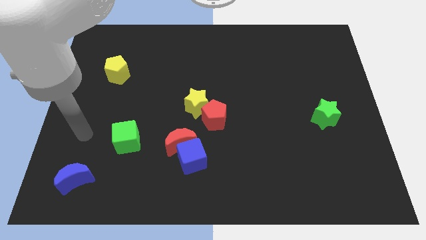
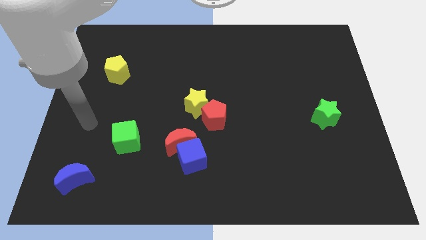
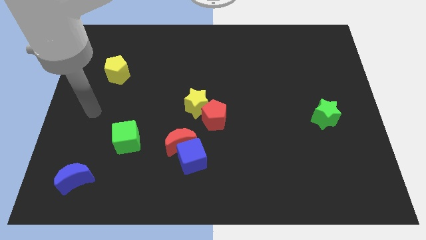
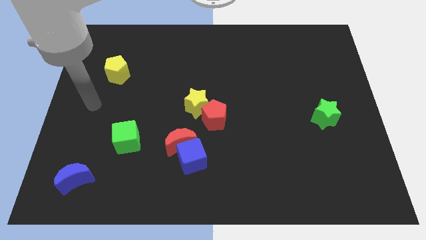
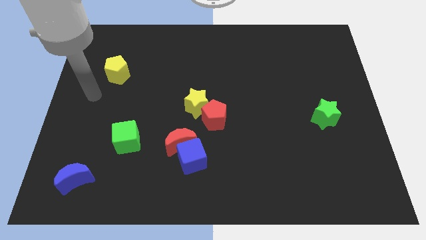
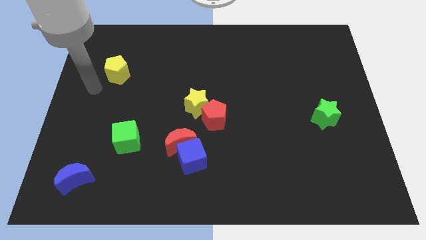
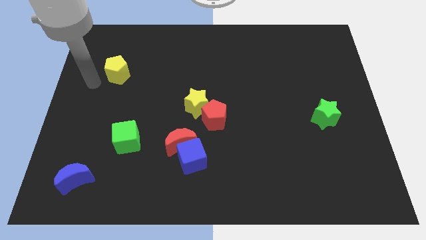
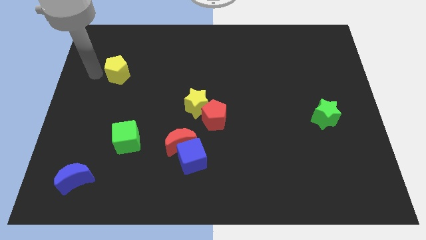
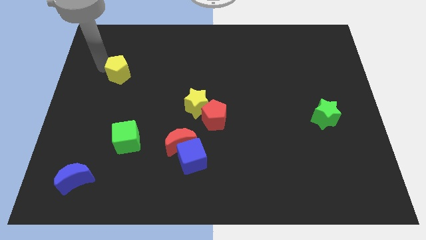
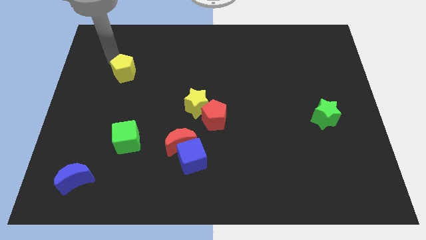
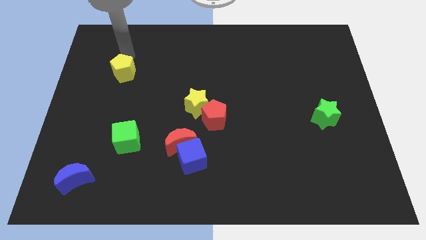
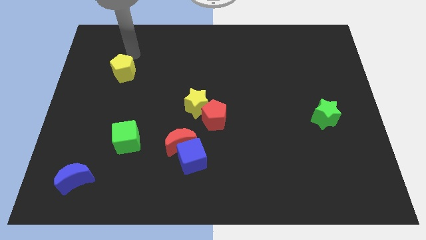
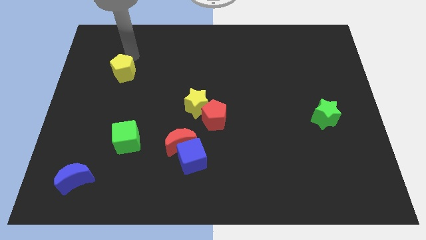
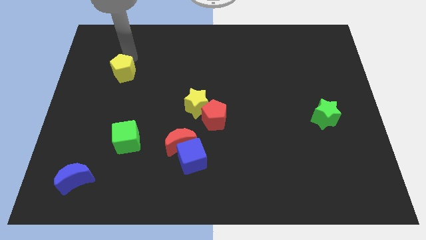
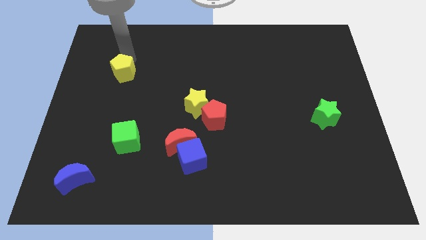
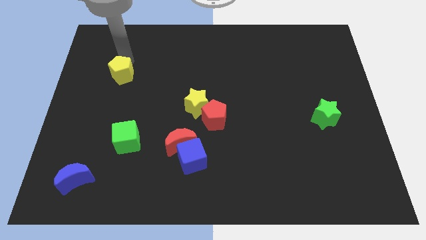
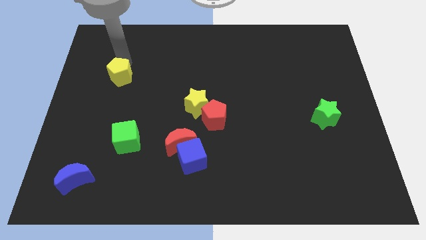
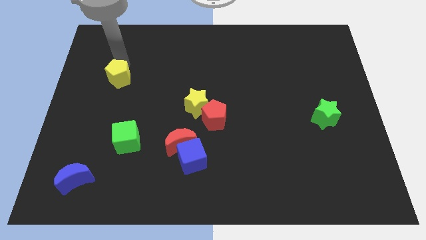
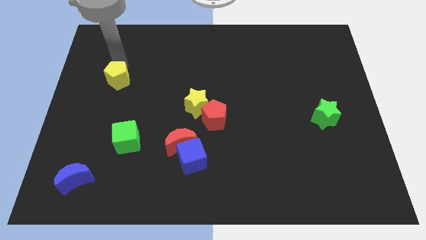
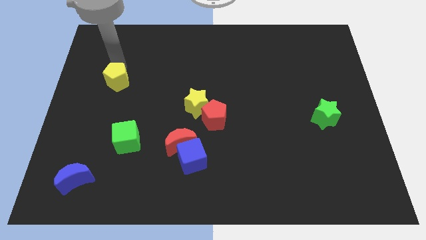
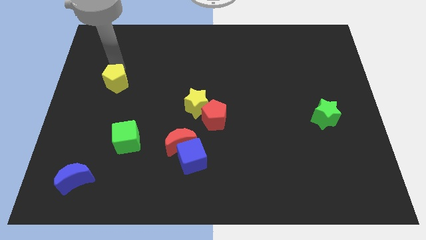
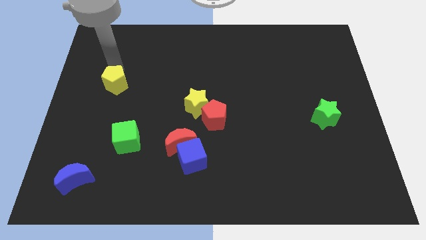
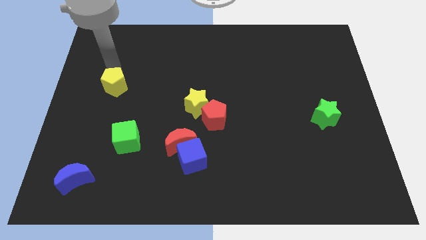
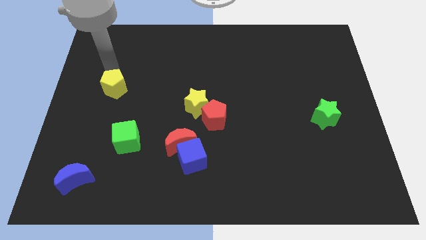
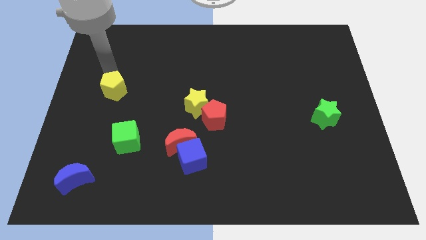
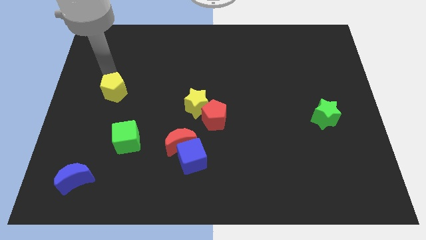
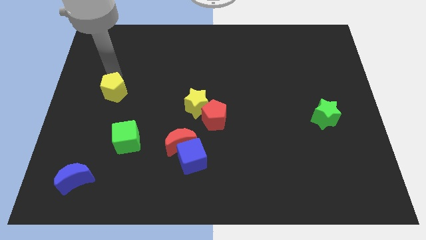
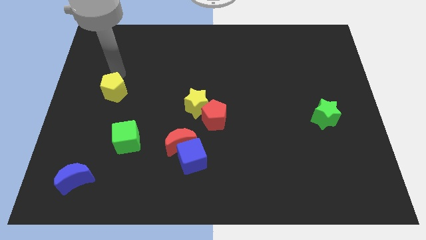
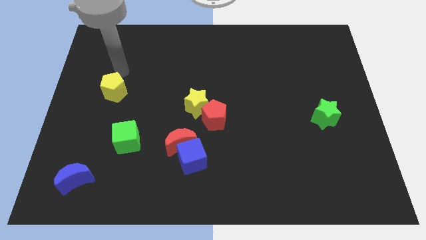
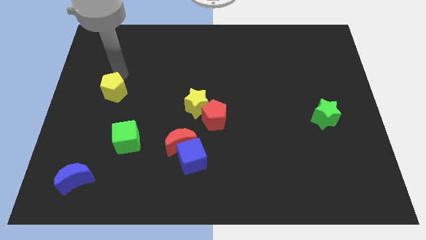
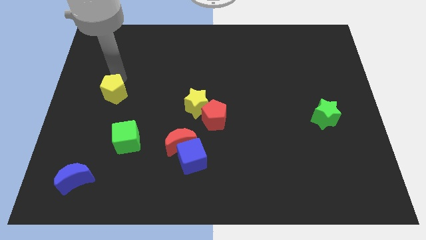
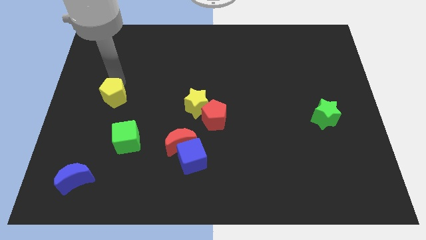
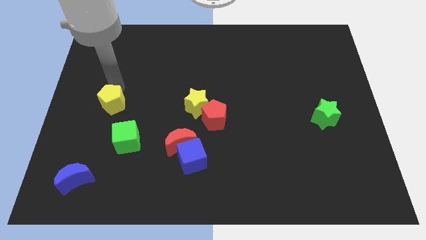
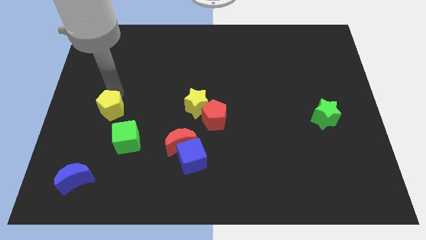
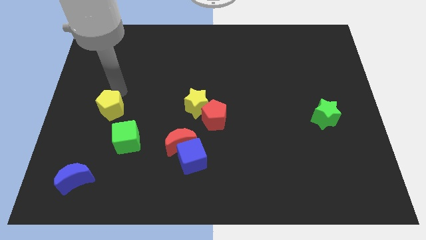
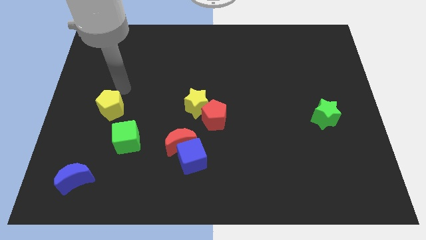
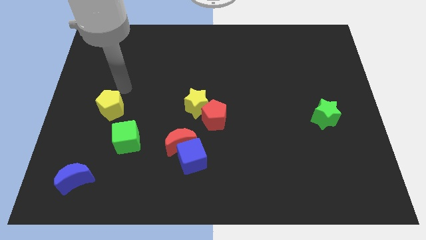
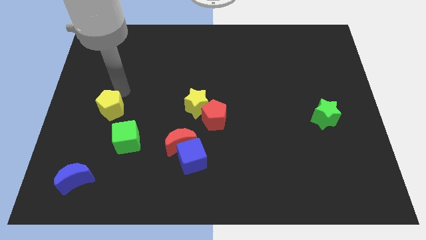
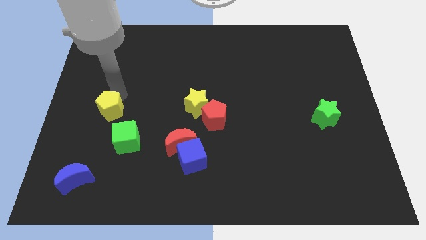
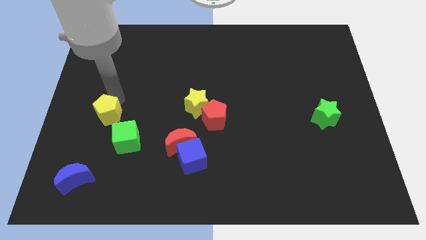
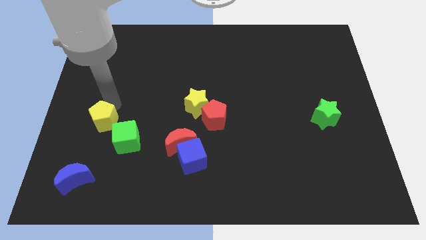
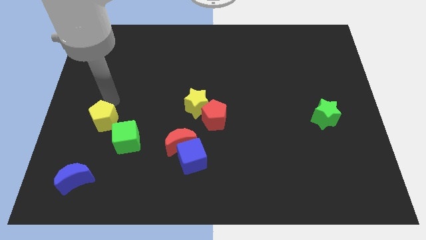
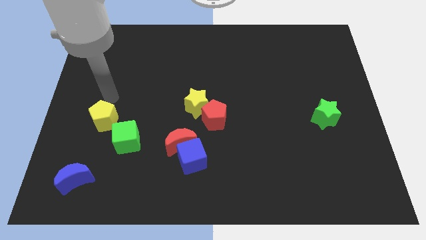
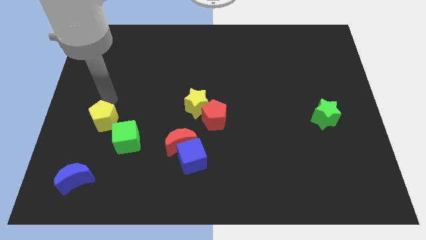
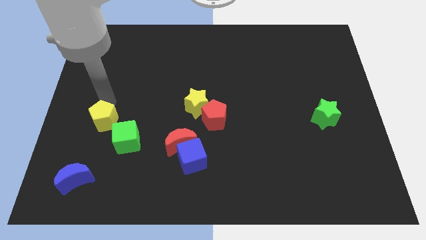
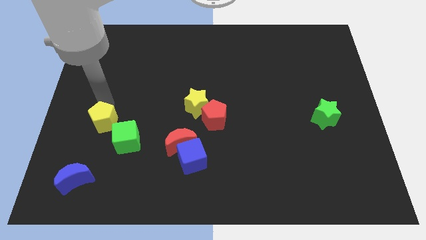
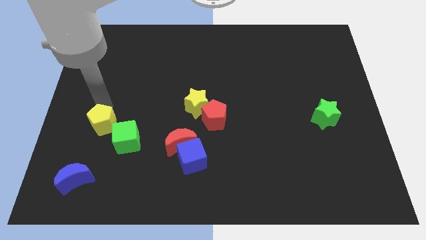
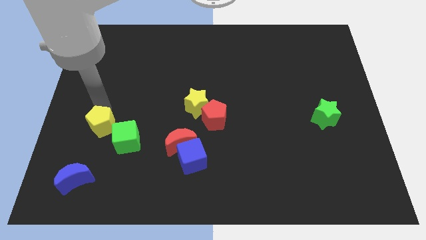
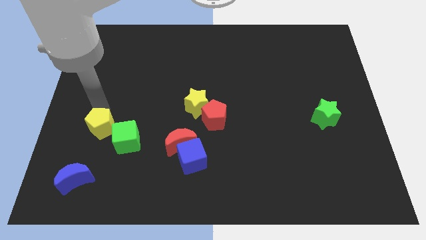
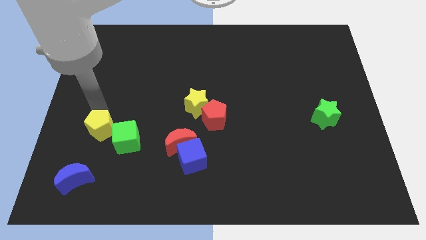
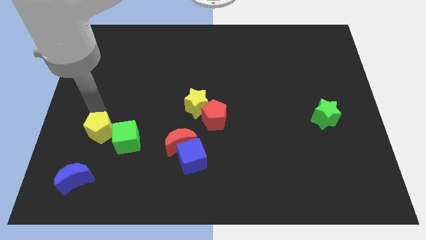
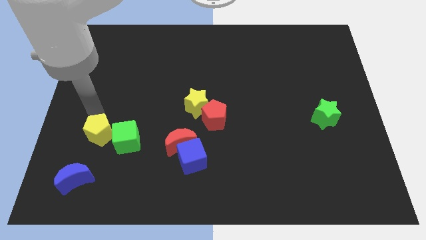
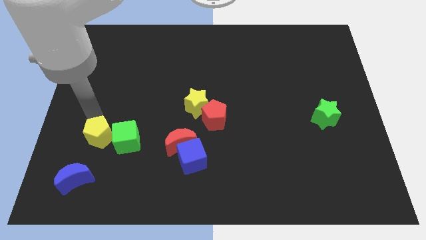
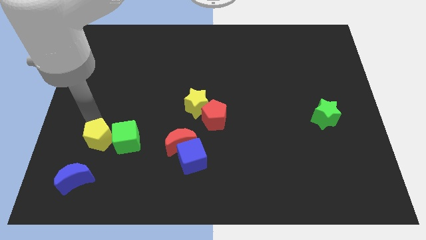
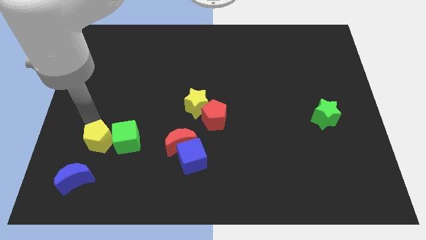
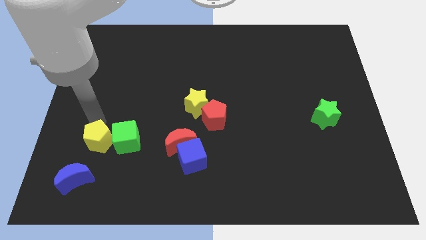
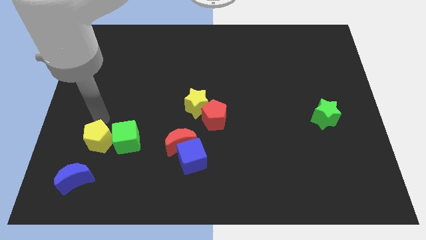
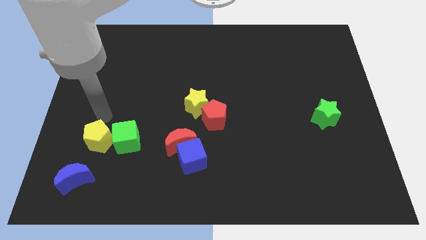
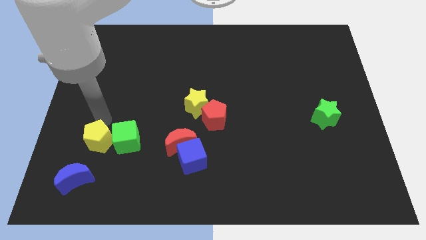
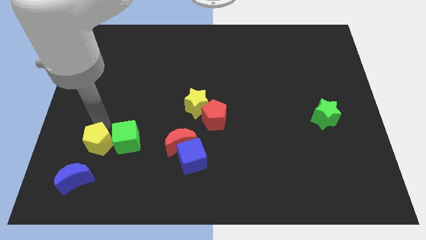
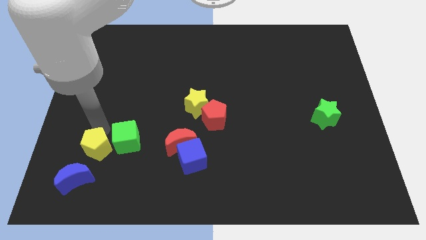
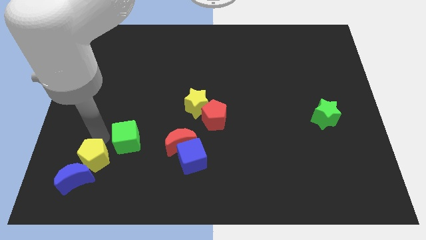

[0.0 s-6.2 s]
push the yellow pentagon towards the blue moon

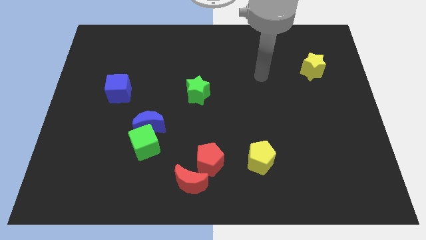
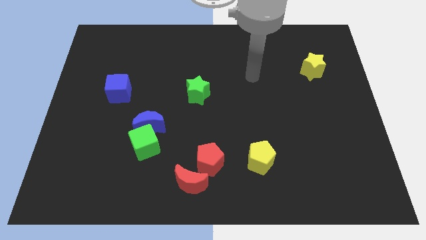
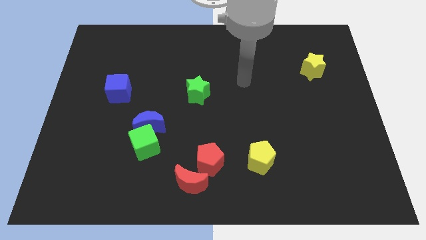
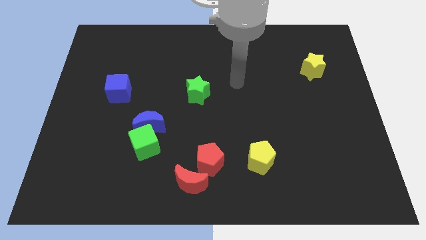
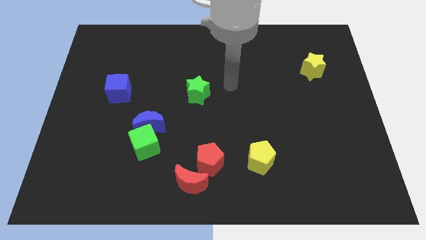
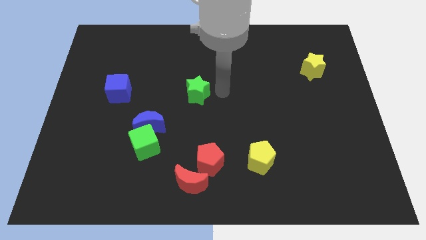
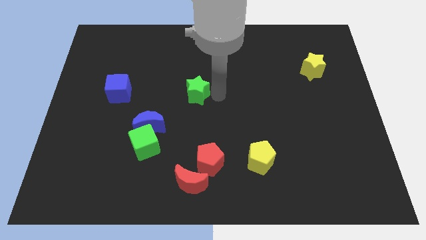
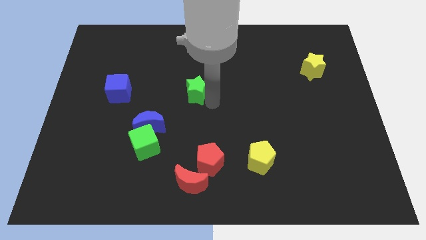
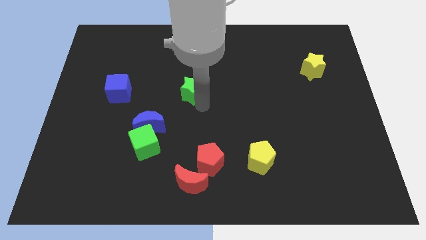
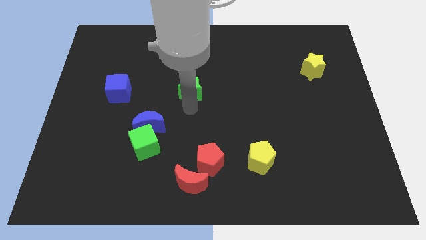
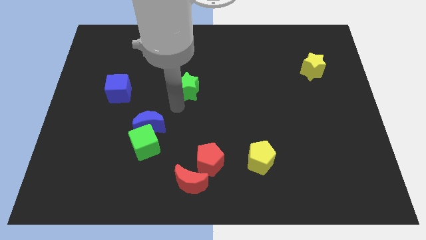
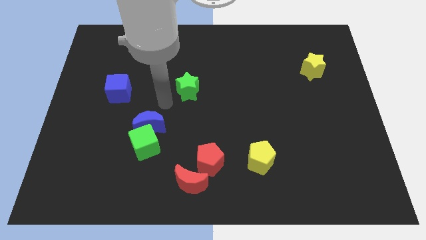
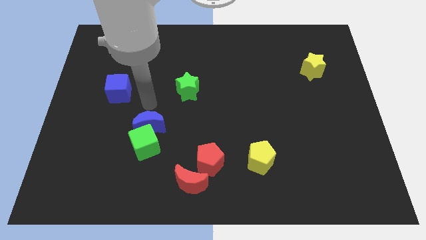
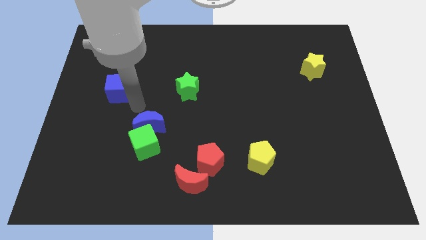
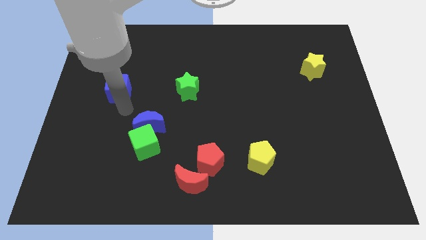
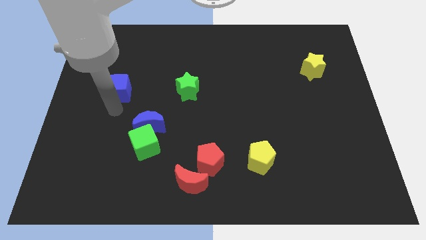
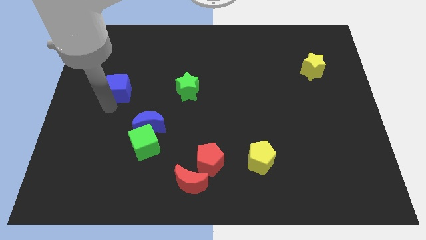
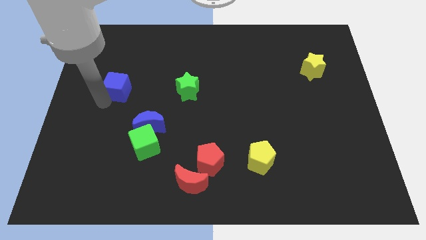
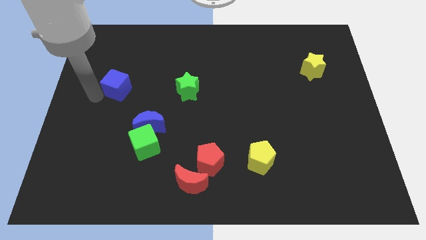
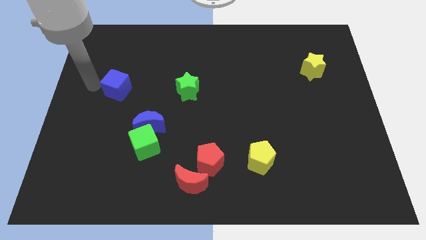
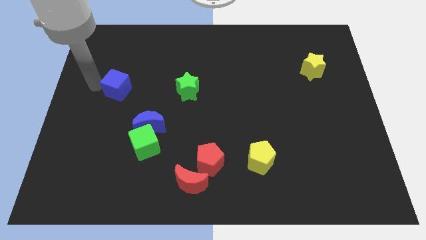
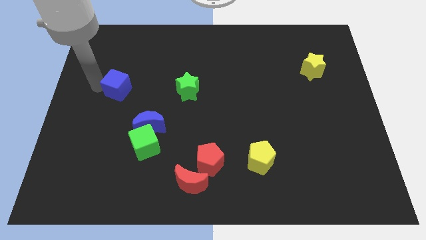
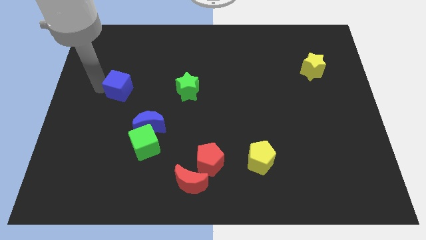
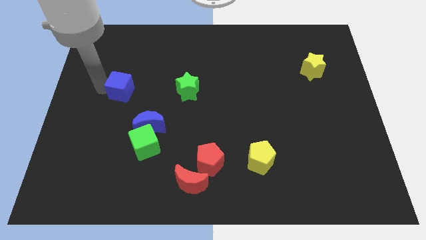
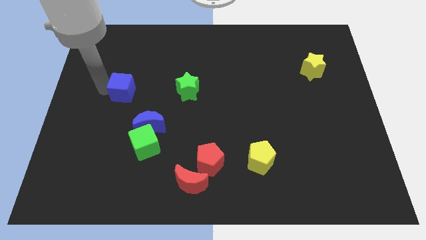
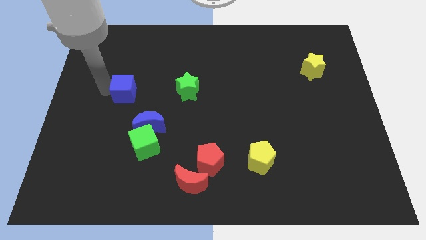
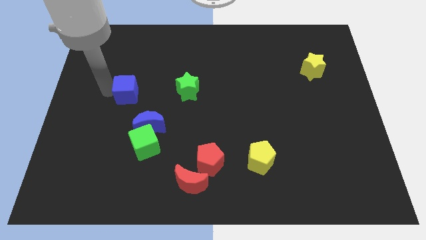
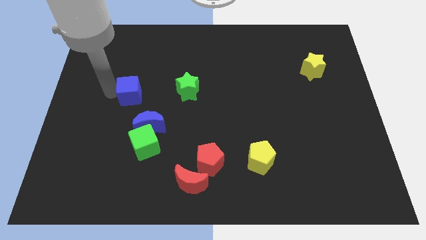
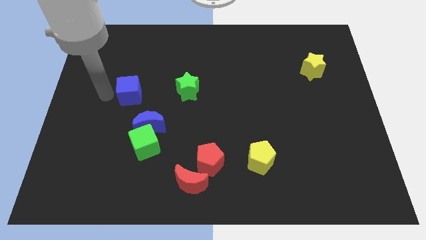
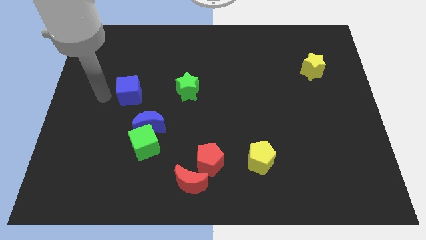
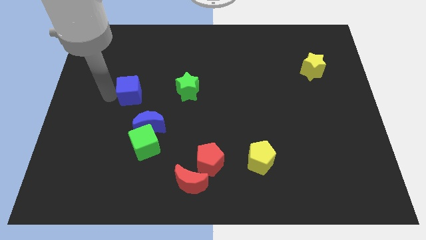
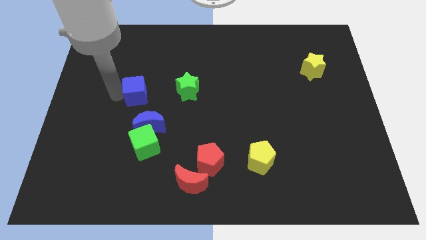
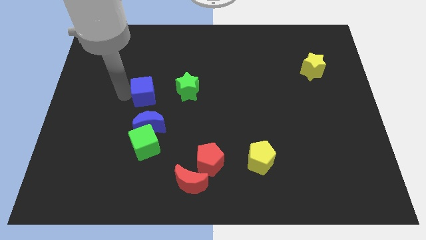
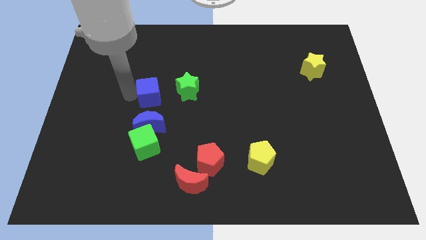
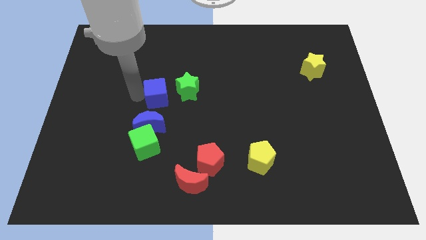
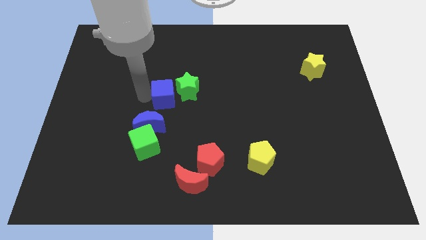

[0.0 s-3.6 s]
slide the blue cube to the green star
